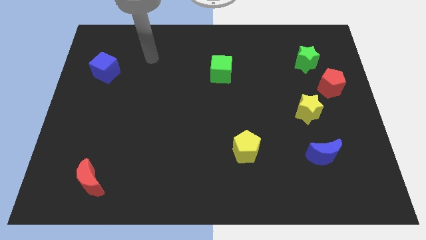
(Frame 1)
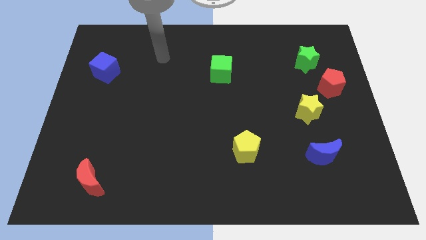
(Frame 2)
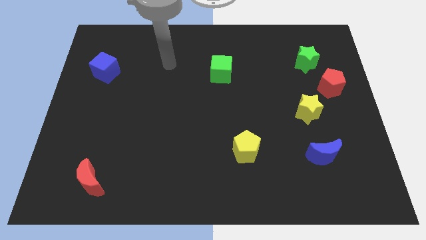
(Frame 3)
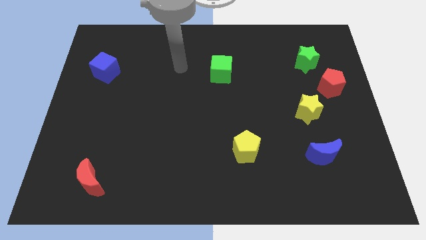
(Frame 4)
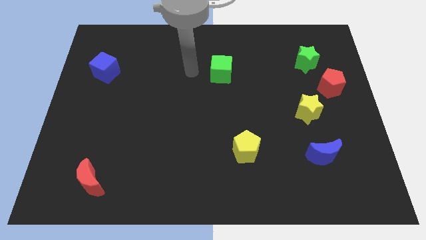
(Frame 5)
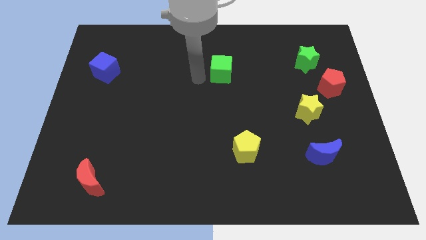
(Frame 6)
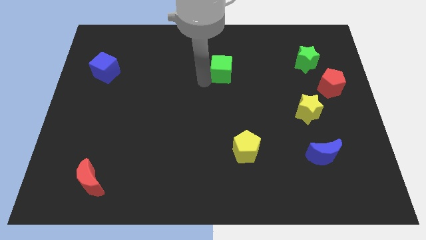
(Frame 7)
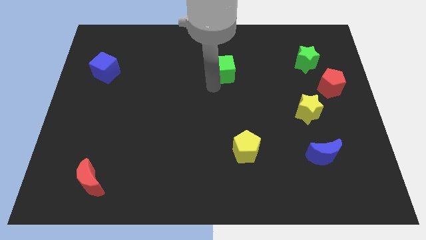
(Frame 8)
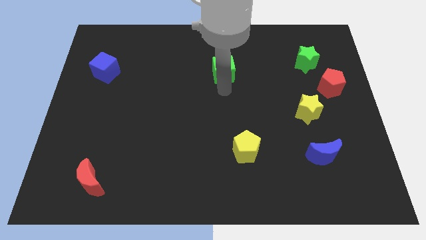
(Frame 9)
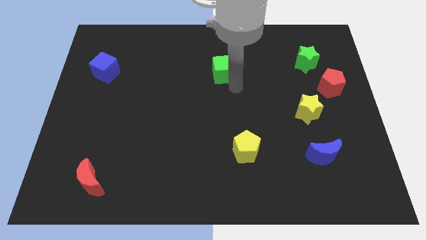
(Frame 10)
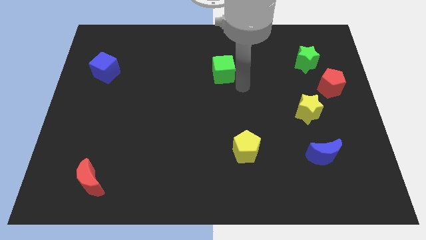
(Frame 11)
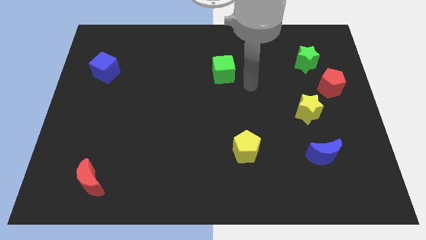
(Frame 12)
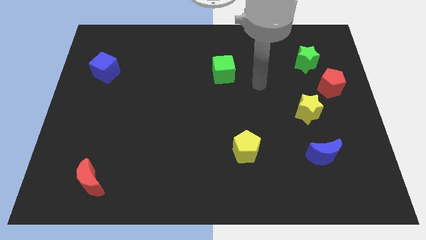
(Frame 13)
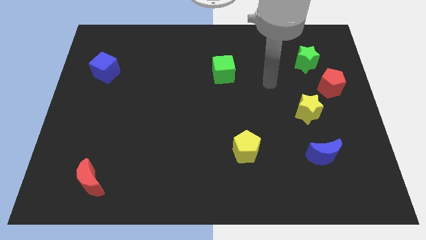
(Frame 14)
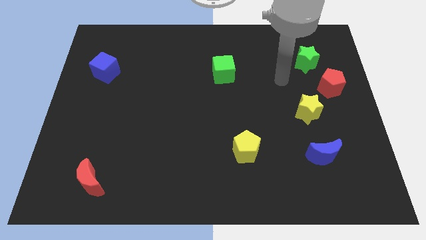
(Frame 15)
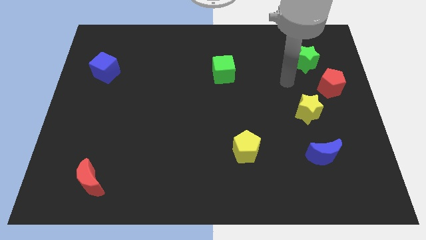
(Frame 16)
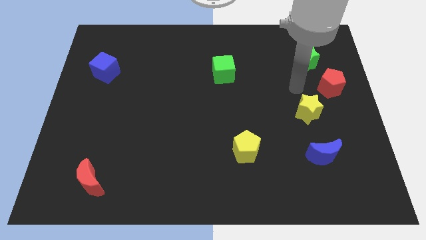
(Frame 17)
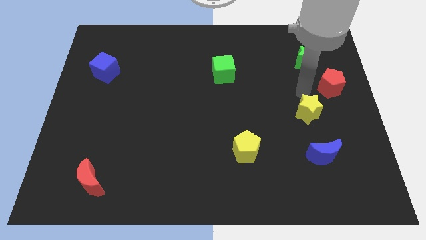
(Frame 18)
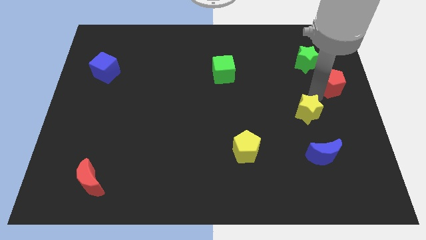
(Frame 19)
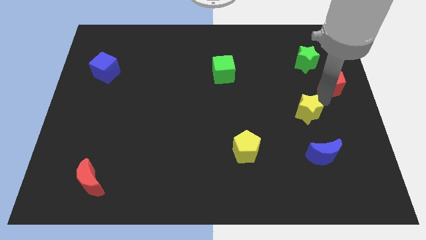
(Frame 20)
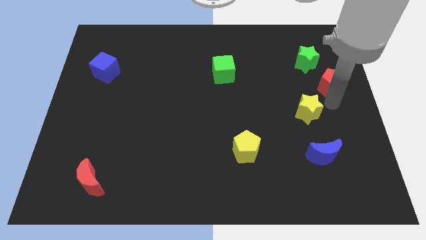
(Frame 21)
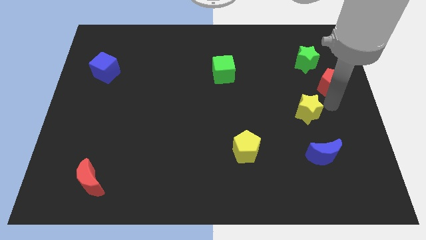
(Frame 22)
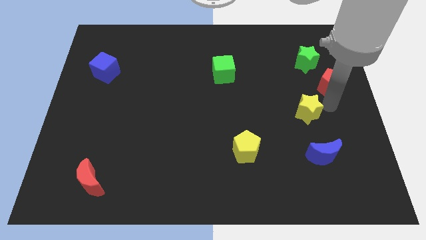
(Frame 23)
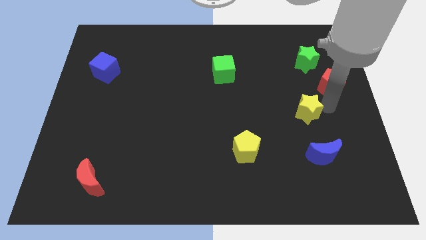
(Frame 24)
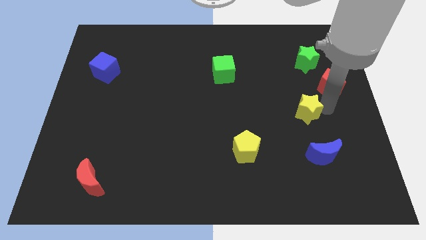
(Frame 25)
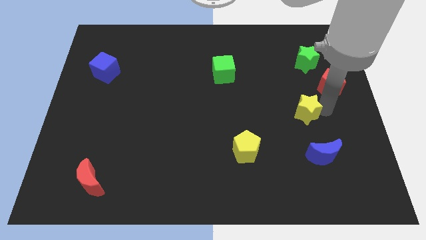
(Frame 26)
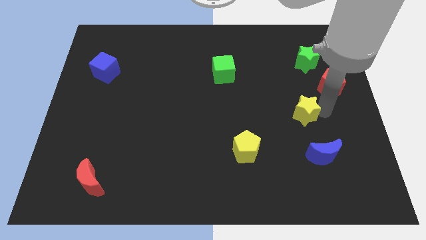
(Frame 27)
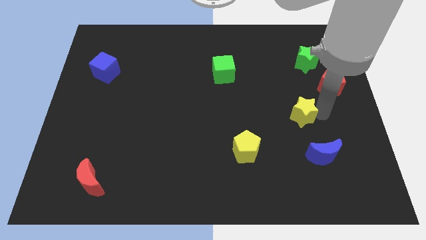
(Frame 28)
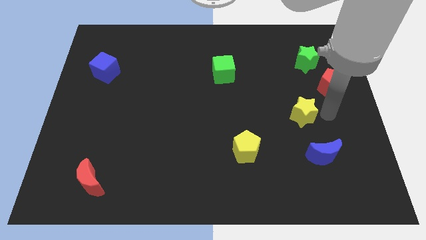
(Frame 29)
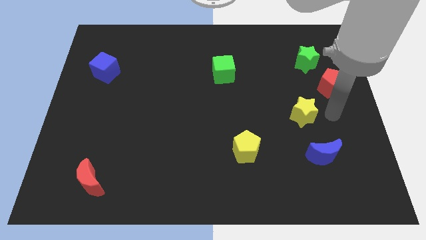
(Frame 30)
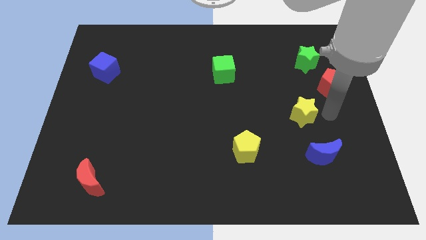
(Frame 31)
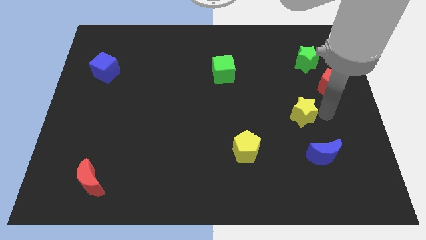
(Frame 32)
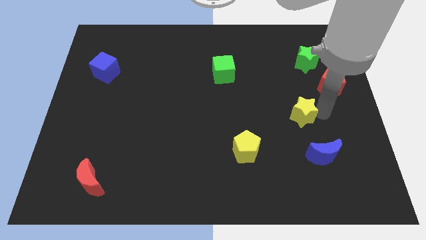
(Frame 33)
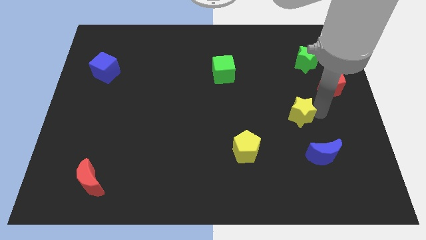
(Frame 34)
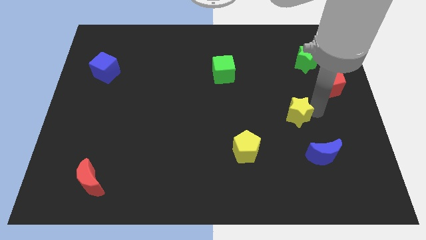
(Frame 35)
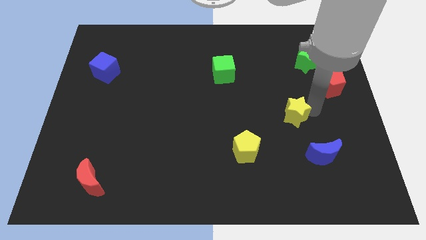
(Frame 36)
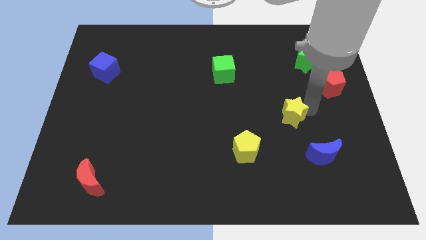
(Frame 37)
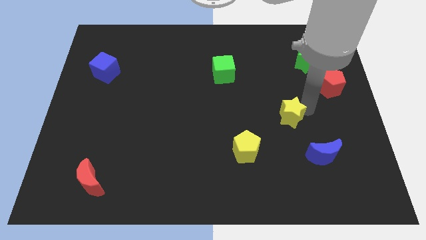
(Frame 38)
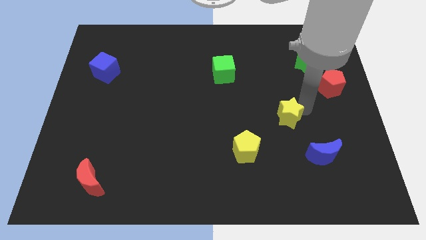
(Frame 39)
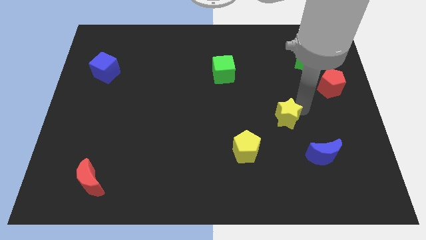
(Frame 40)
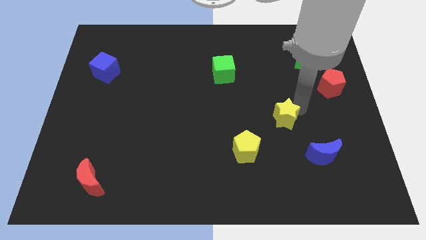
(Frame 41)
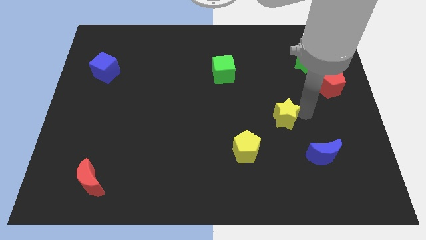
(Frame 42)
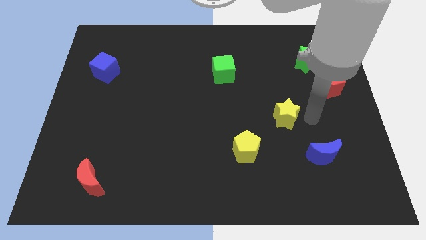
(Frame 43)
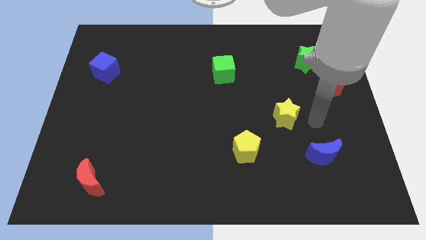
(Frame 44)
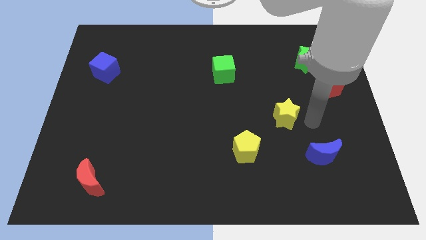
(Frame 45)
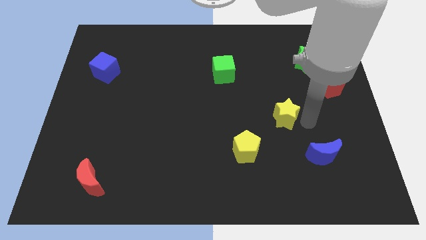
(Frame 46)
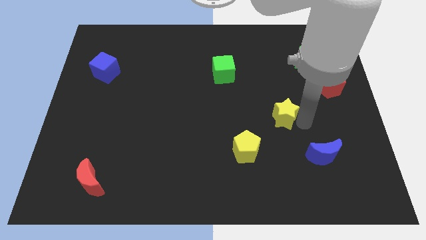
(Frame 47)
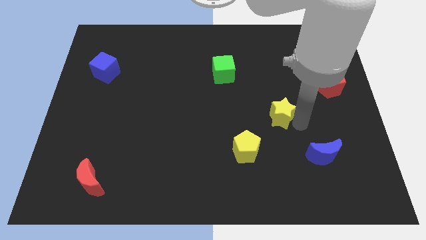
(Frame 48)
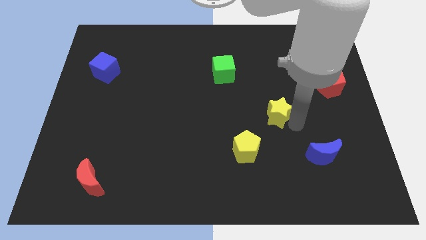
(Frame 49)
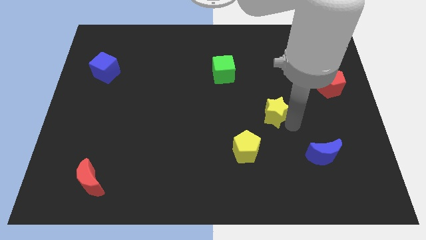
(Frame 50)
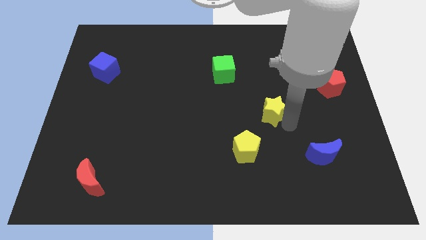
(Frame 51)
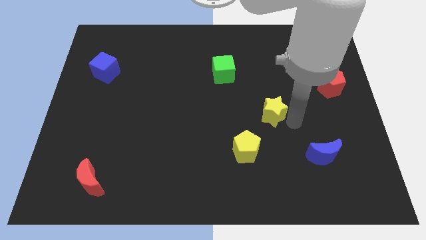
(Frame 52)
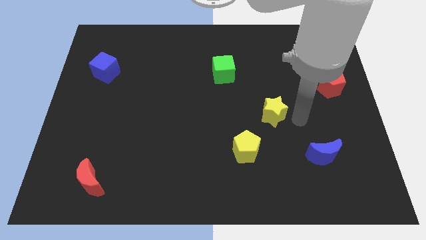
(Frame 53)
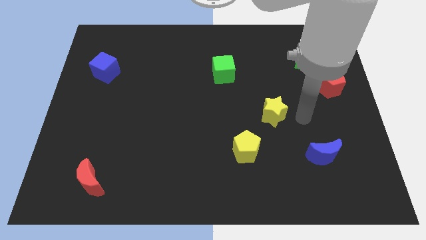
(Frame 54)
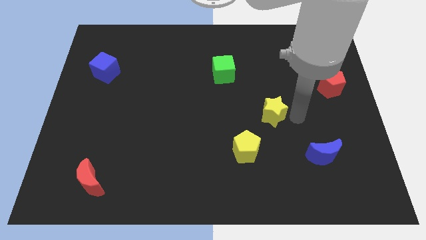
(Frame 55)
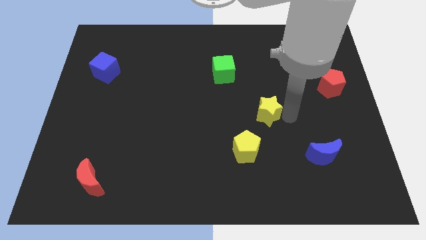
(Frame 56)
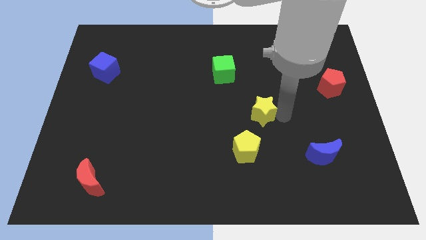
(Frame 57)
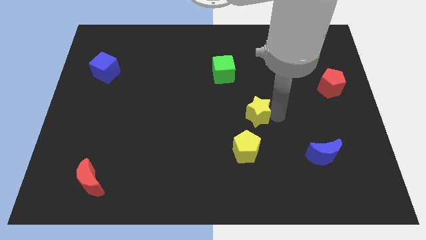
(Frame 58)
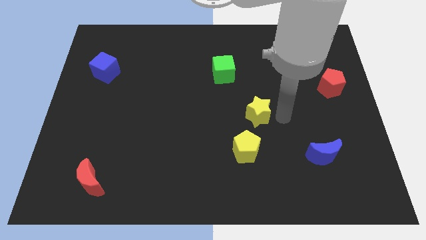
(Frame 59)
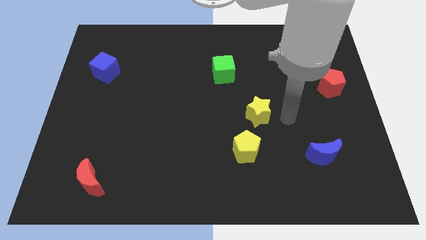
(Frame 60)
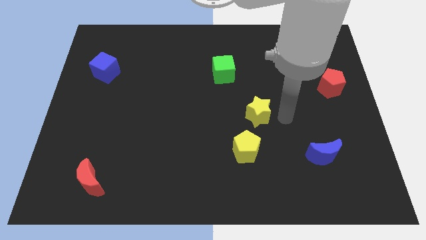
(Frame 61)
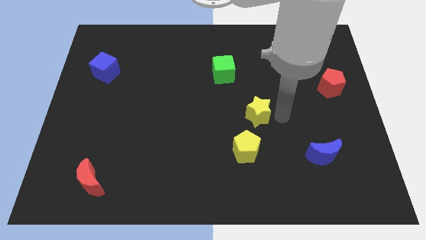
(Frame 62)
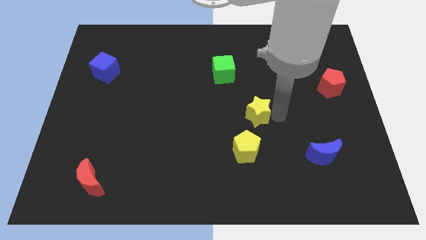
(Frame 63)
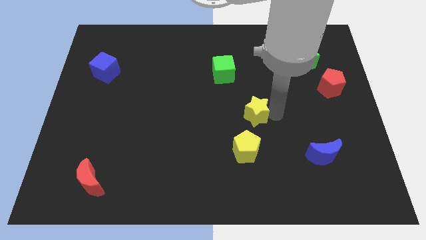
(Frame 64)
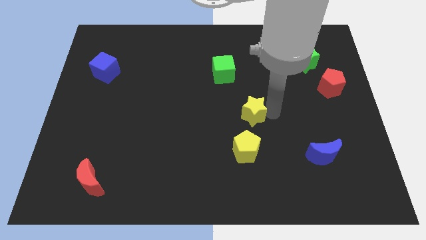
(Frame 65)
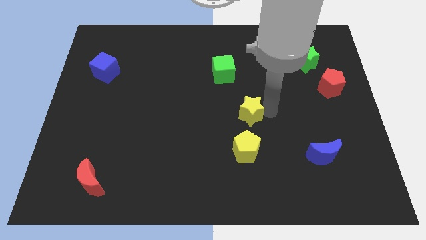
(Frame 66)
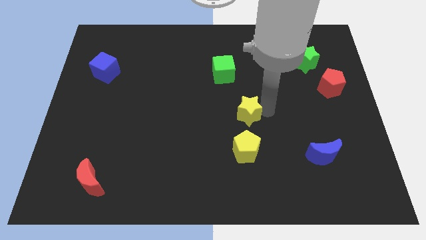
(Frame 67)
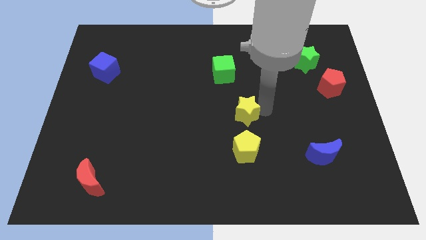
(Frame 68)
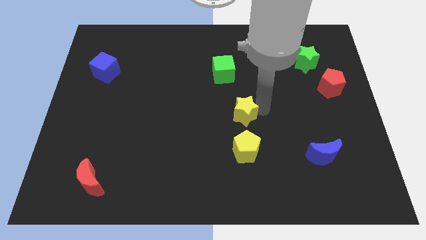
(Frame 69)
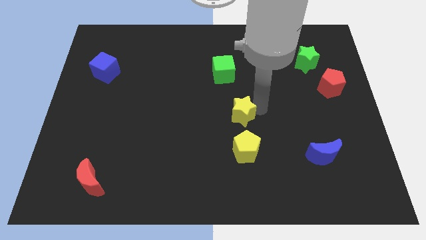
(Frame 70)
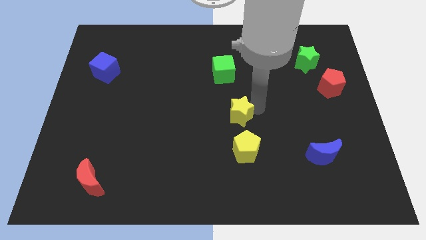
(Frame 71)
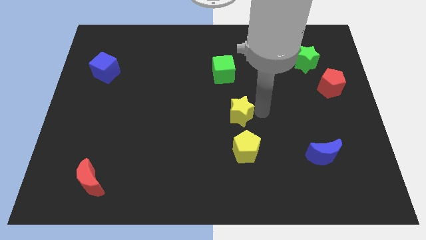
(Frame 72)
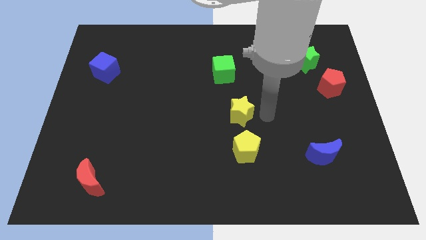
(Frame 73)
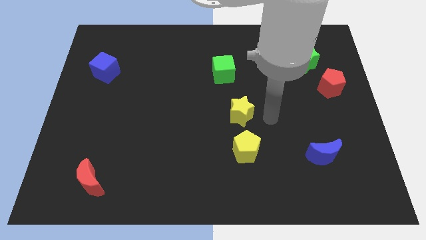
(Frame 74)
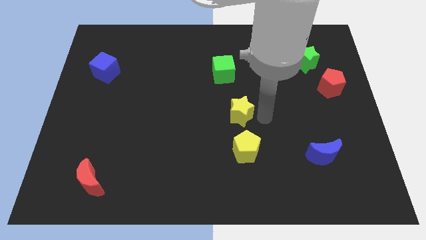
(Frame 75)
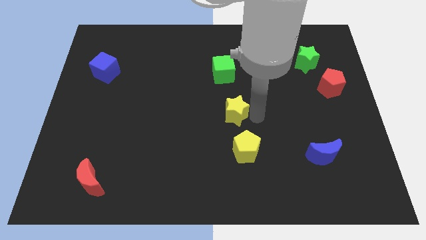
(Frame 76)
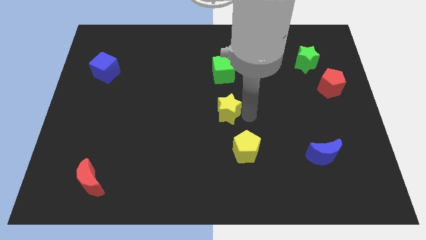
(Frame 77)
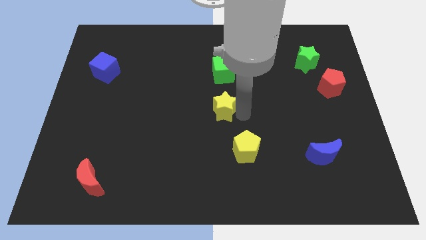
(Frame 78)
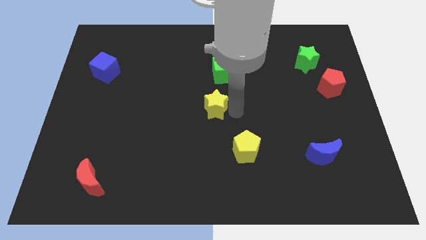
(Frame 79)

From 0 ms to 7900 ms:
slide the yellow star to the left

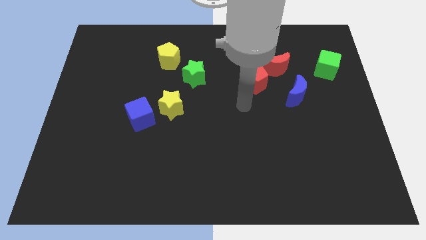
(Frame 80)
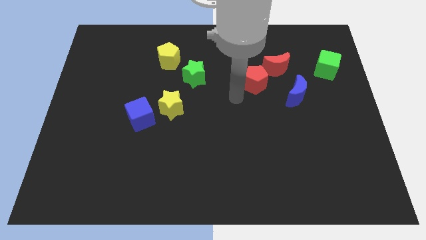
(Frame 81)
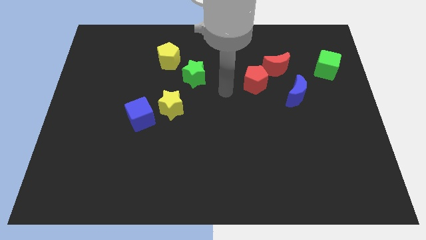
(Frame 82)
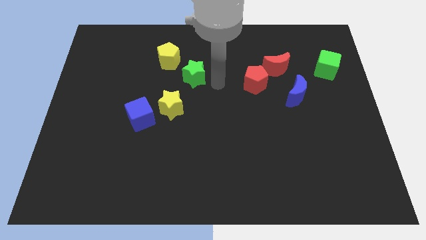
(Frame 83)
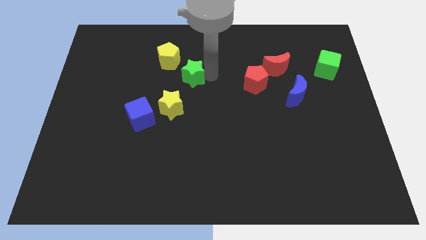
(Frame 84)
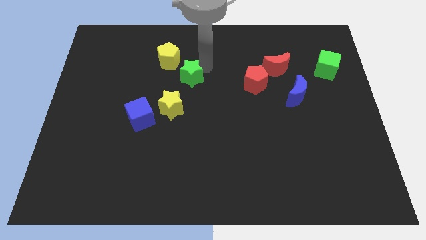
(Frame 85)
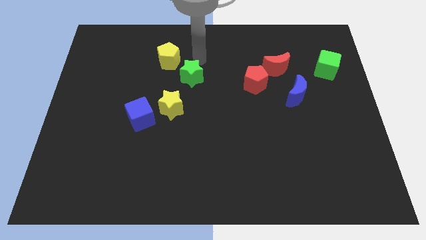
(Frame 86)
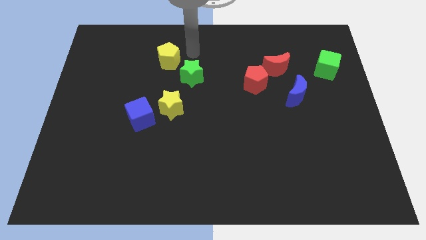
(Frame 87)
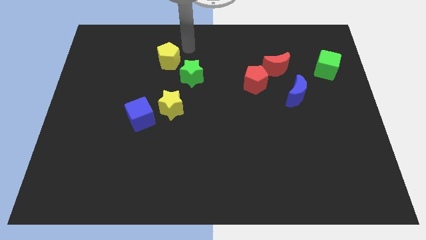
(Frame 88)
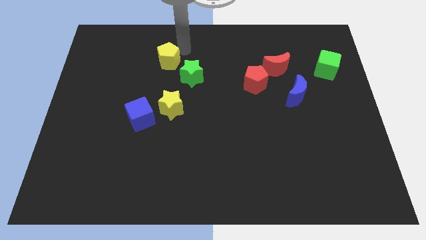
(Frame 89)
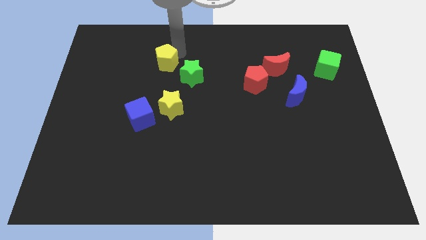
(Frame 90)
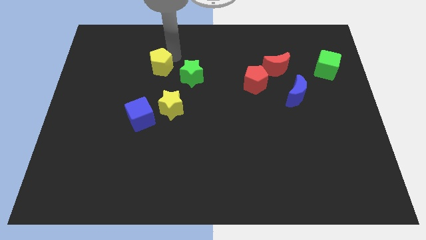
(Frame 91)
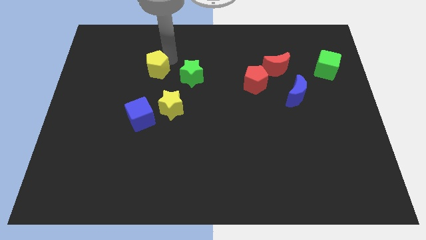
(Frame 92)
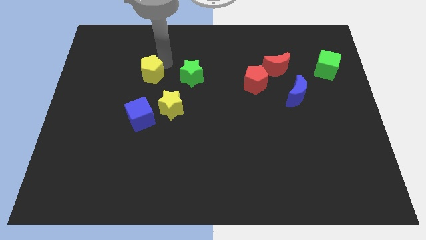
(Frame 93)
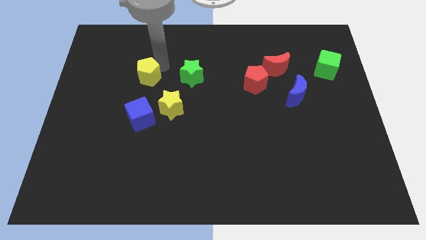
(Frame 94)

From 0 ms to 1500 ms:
slightly slide the yellow pentagon downwards and to the left
